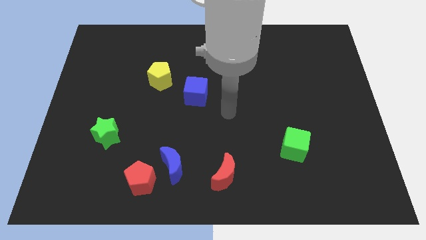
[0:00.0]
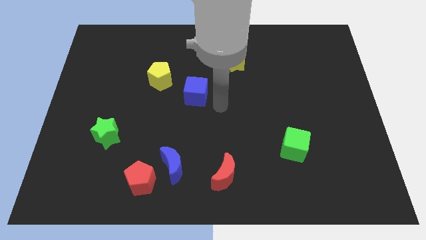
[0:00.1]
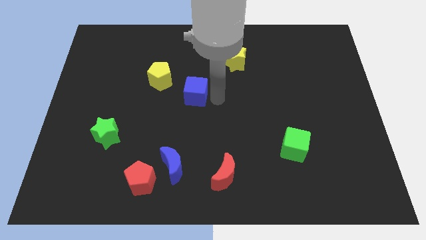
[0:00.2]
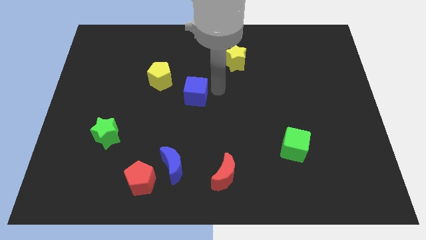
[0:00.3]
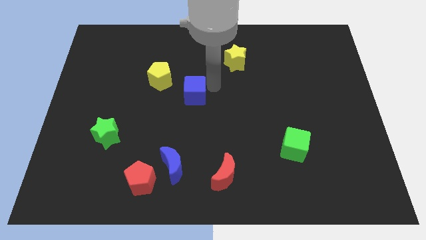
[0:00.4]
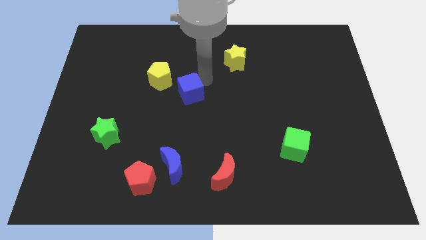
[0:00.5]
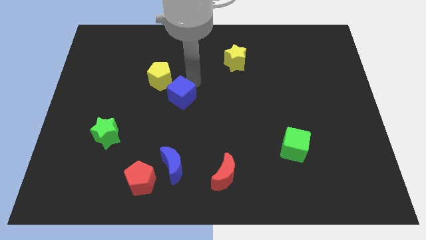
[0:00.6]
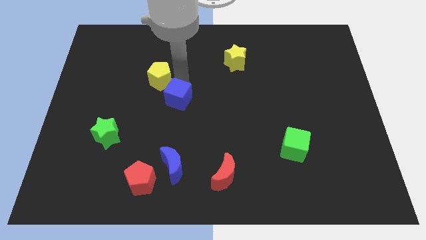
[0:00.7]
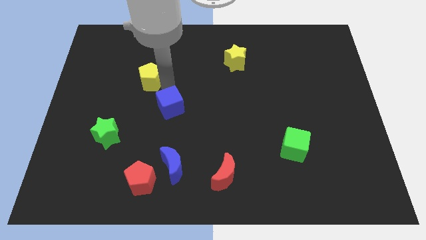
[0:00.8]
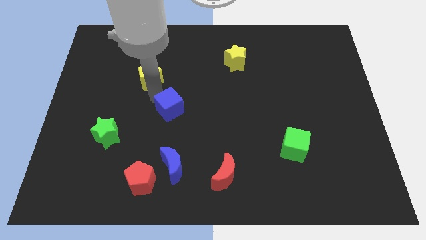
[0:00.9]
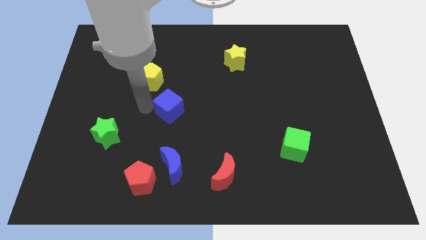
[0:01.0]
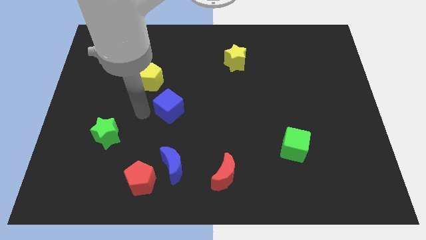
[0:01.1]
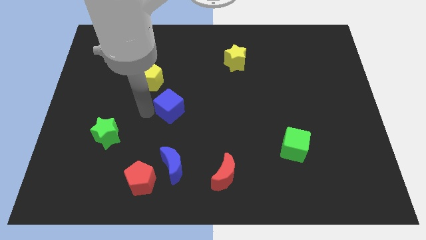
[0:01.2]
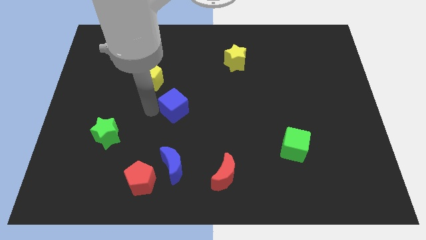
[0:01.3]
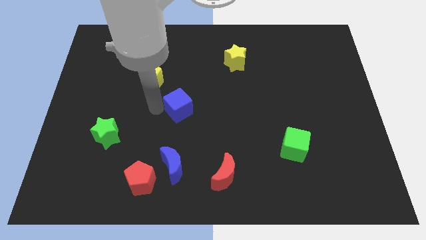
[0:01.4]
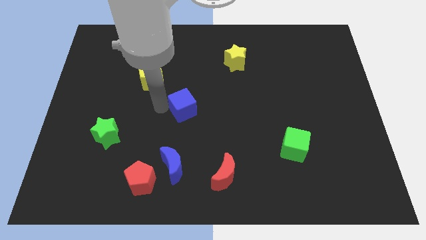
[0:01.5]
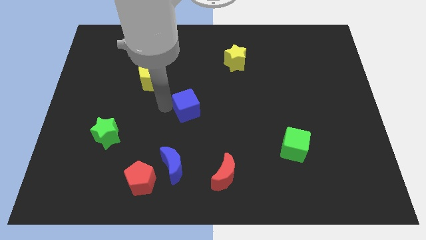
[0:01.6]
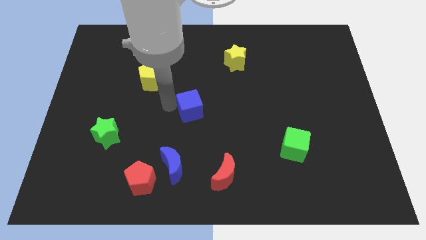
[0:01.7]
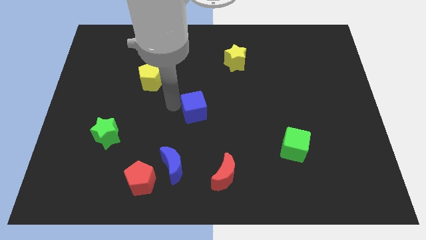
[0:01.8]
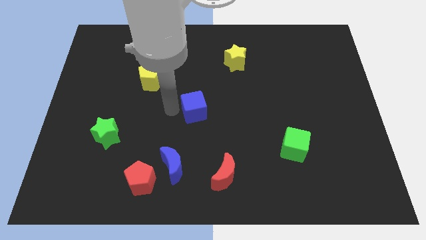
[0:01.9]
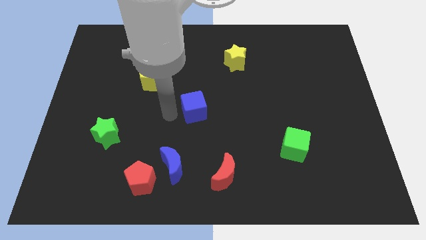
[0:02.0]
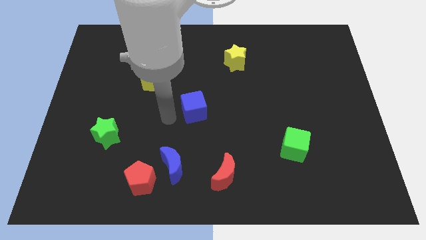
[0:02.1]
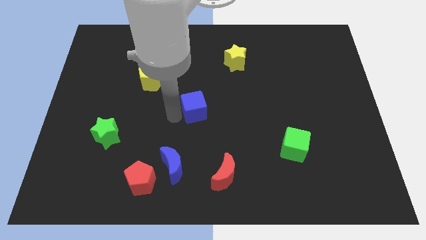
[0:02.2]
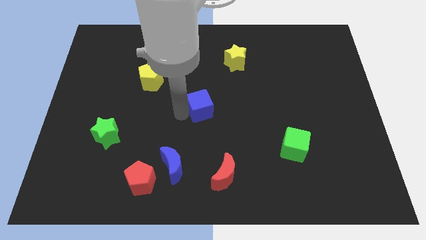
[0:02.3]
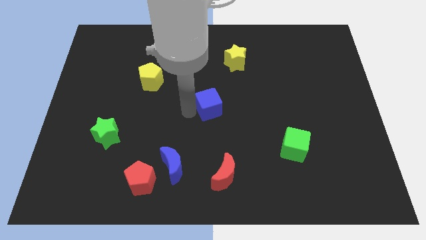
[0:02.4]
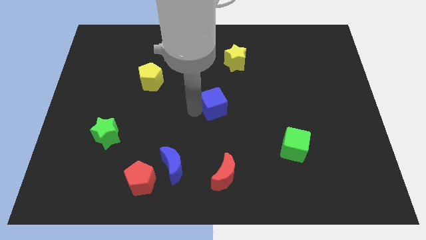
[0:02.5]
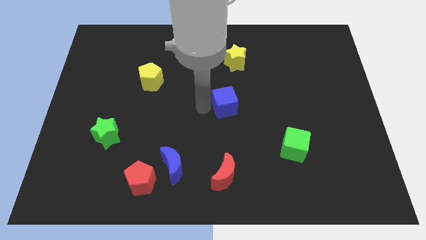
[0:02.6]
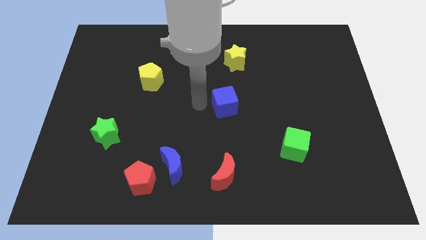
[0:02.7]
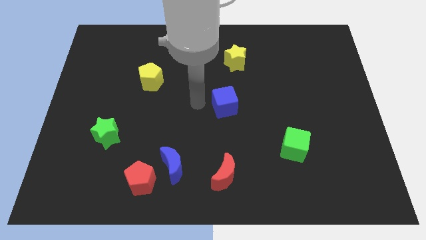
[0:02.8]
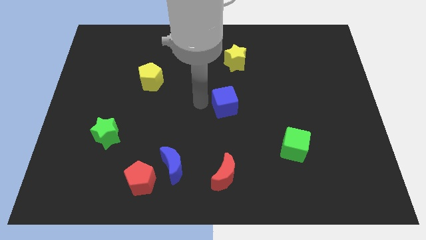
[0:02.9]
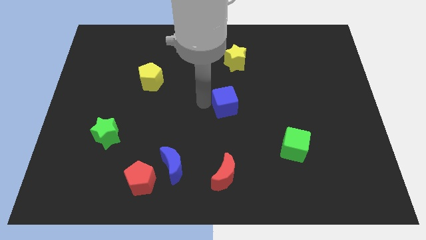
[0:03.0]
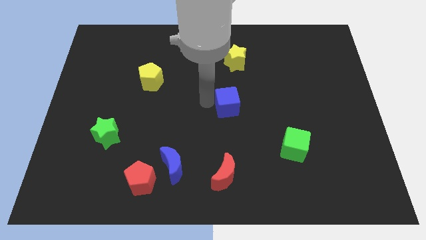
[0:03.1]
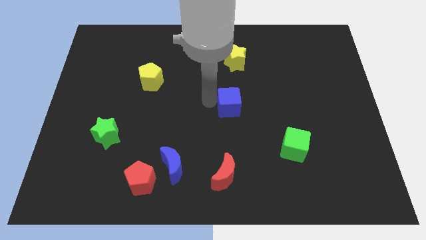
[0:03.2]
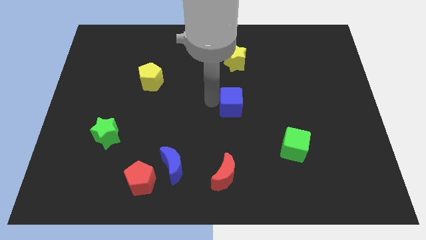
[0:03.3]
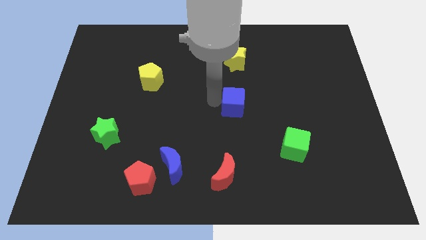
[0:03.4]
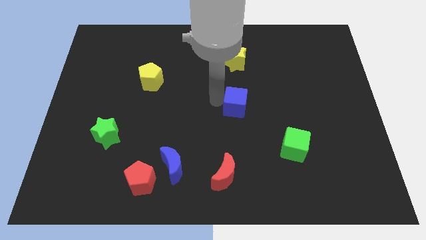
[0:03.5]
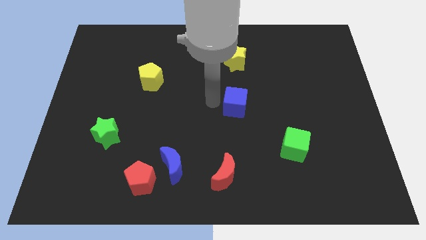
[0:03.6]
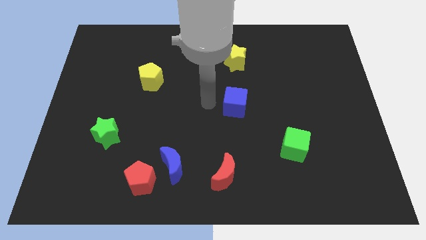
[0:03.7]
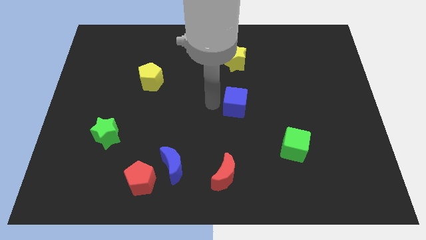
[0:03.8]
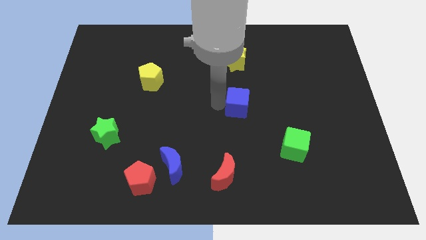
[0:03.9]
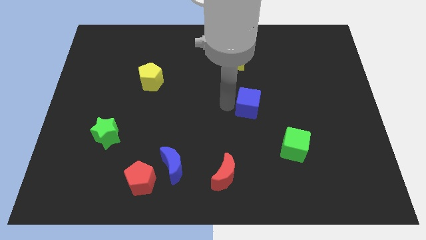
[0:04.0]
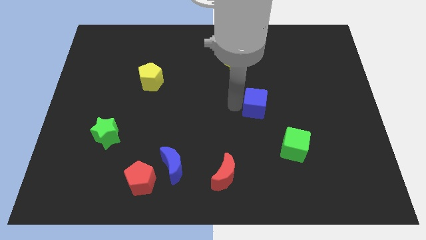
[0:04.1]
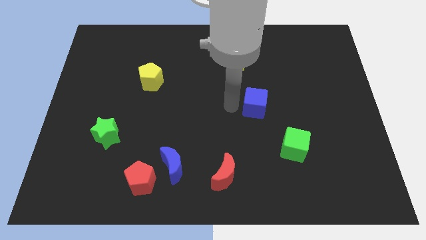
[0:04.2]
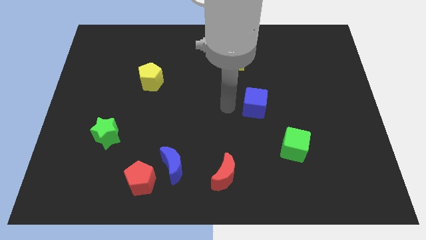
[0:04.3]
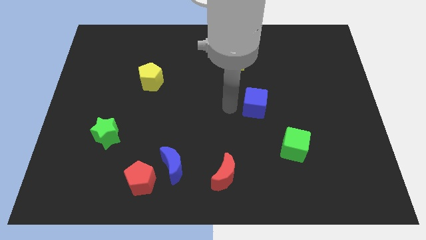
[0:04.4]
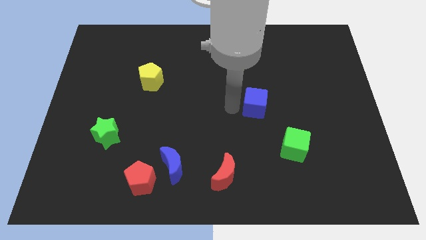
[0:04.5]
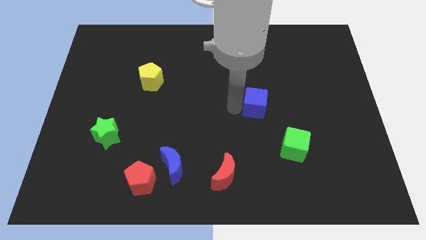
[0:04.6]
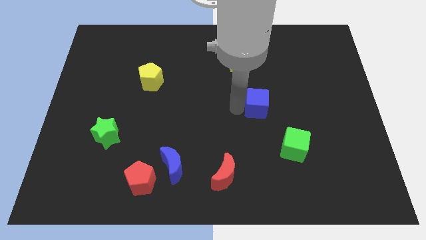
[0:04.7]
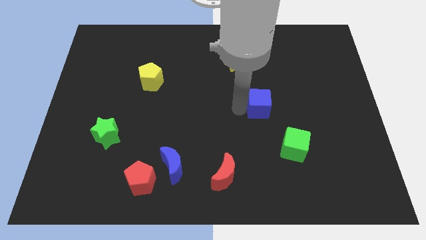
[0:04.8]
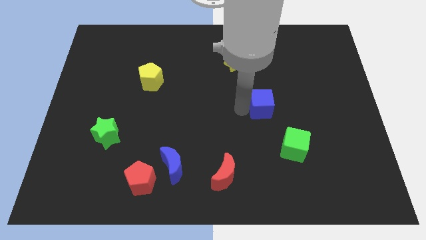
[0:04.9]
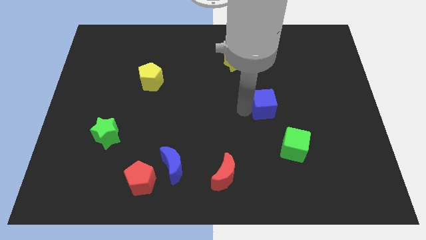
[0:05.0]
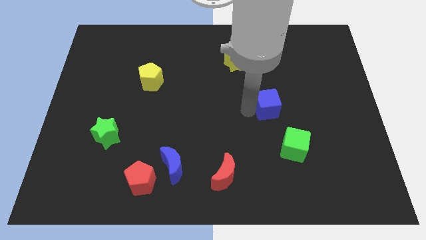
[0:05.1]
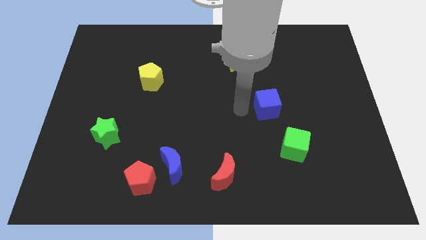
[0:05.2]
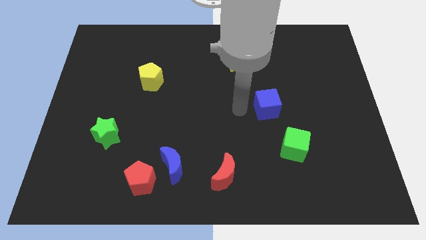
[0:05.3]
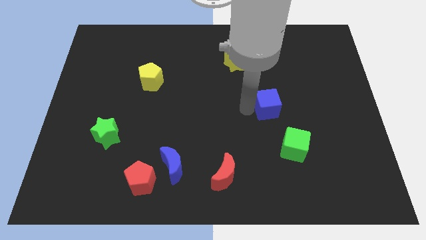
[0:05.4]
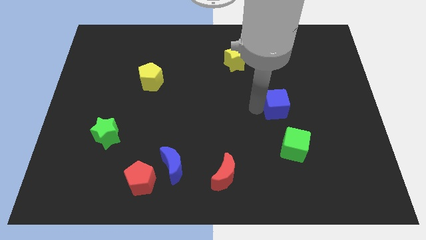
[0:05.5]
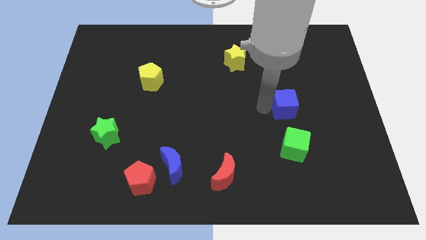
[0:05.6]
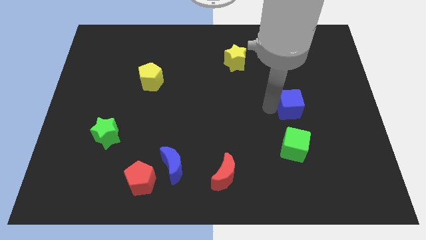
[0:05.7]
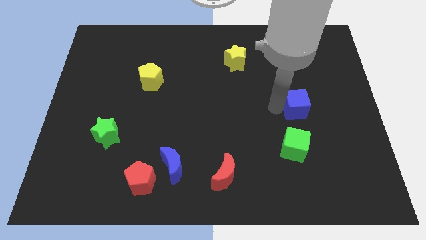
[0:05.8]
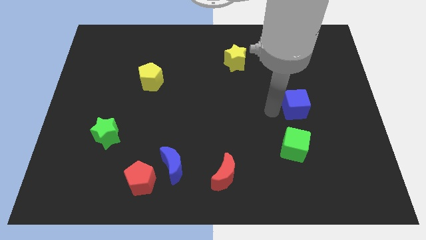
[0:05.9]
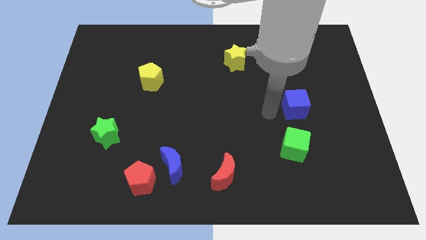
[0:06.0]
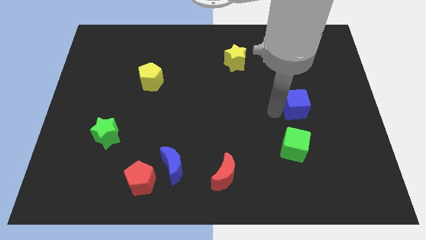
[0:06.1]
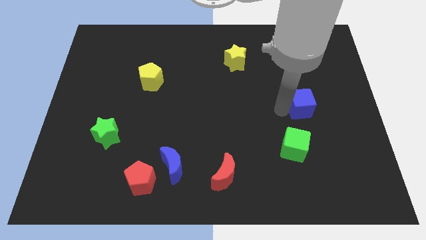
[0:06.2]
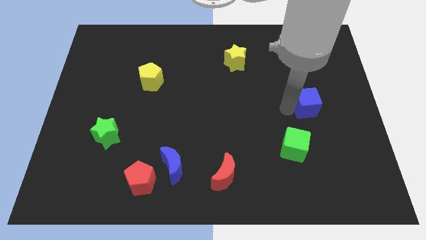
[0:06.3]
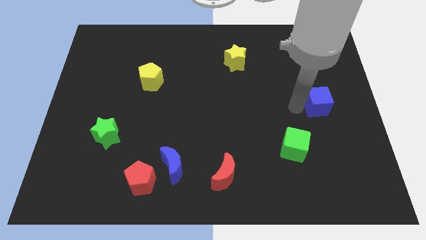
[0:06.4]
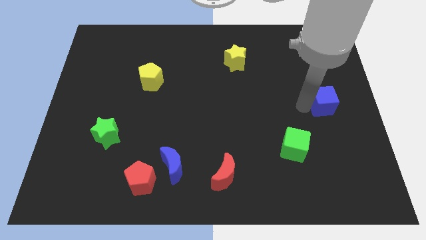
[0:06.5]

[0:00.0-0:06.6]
put the blue cube to the right side of the board
